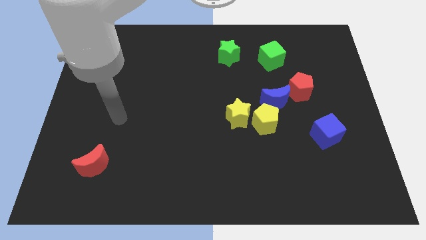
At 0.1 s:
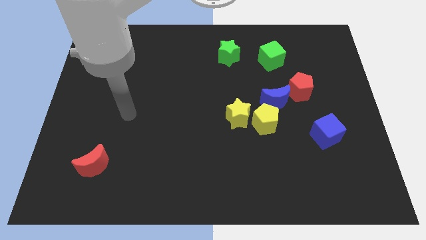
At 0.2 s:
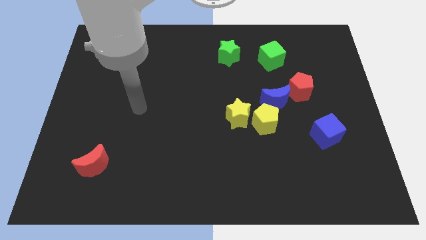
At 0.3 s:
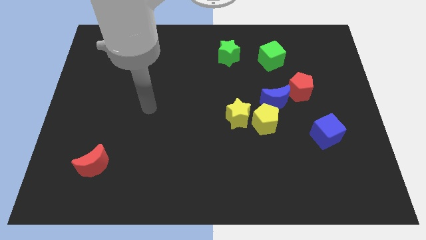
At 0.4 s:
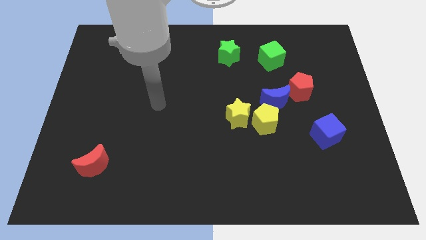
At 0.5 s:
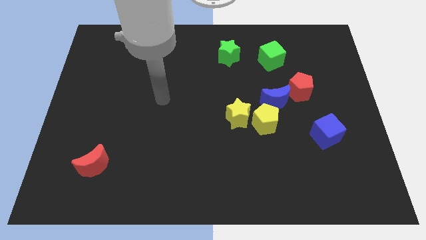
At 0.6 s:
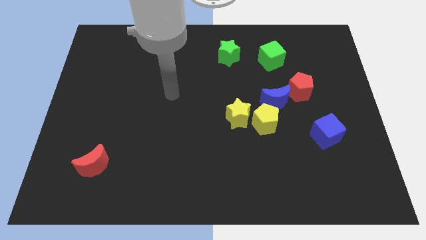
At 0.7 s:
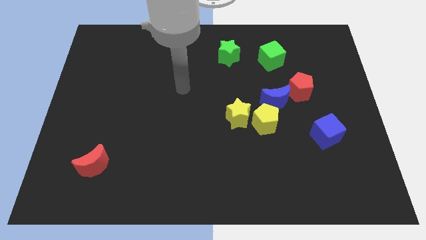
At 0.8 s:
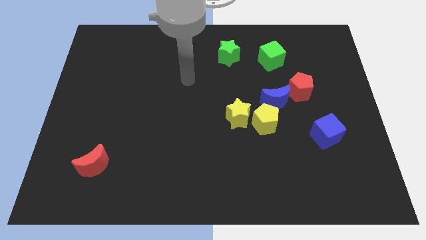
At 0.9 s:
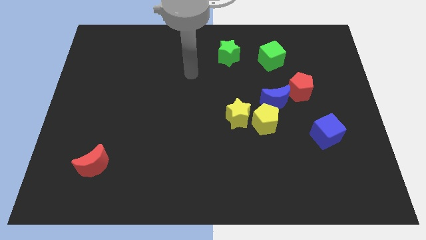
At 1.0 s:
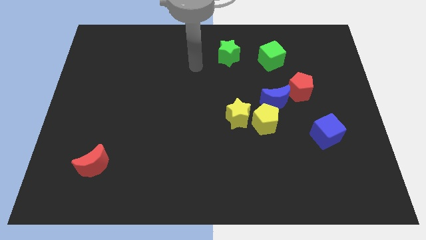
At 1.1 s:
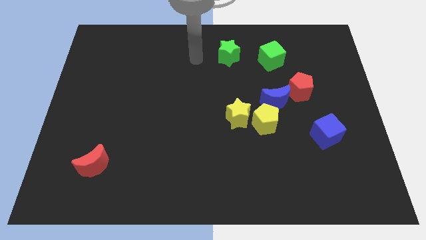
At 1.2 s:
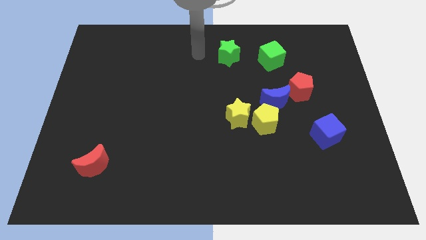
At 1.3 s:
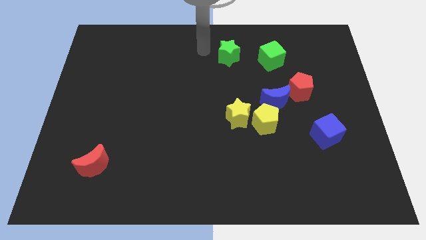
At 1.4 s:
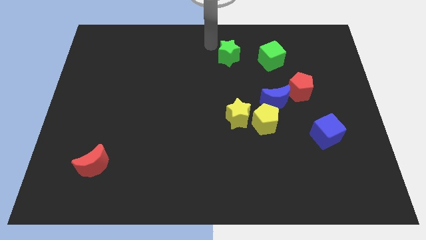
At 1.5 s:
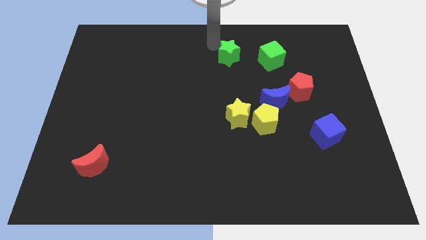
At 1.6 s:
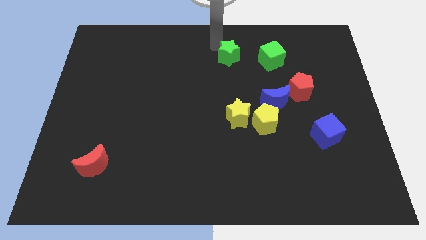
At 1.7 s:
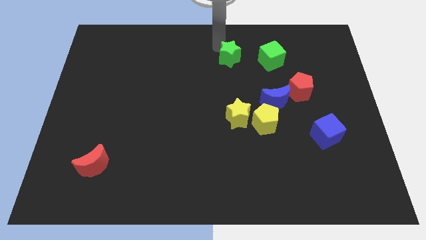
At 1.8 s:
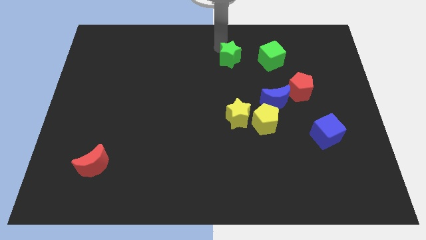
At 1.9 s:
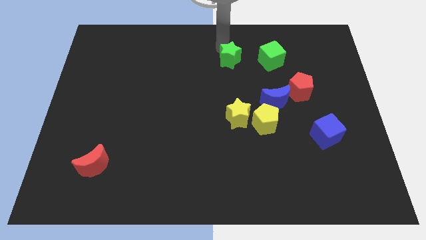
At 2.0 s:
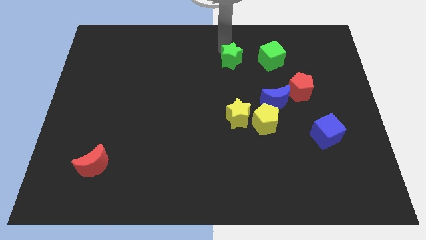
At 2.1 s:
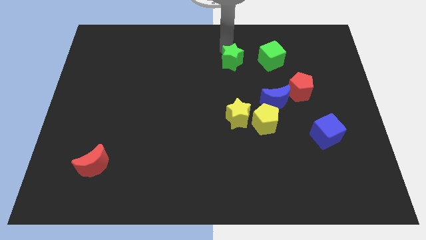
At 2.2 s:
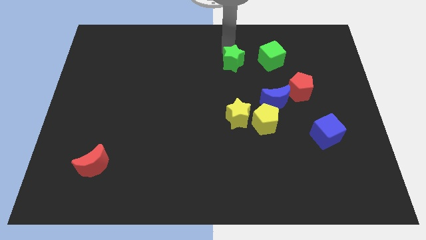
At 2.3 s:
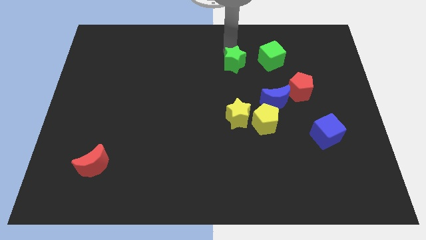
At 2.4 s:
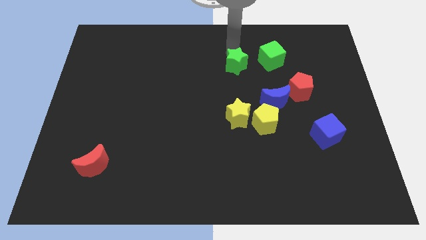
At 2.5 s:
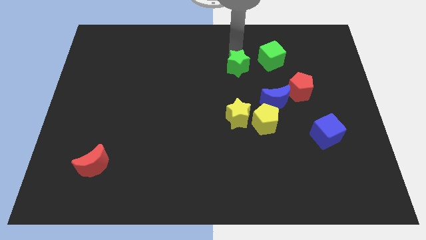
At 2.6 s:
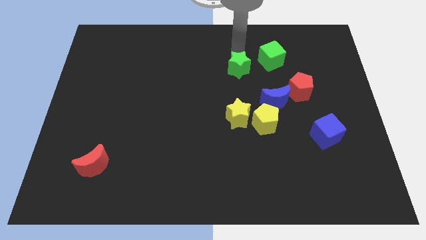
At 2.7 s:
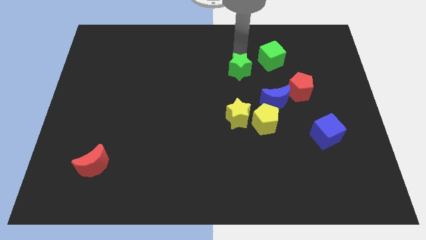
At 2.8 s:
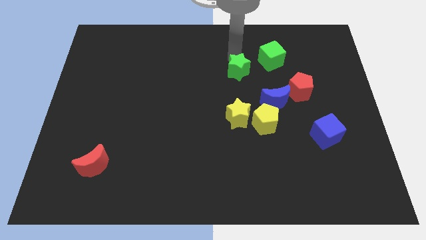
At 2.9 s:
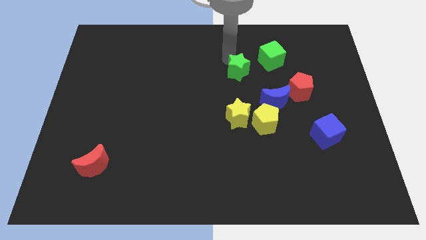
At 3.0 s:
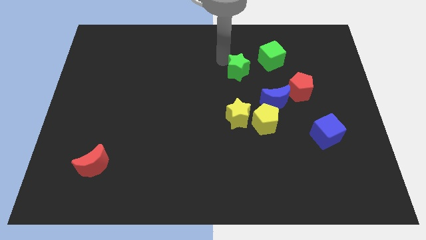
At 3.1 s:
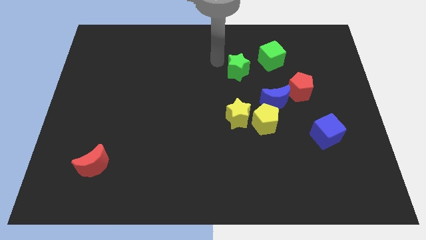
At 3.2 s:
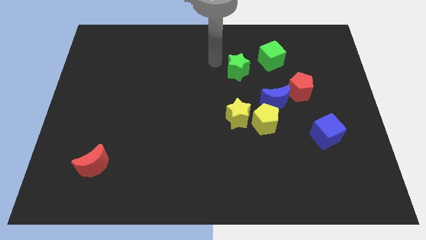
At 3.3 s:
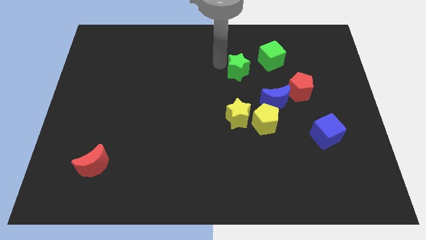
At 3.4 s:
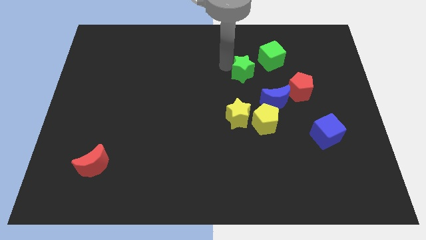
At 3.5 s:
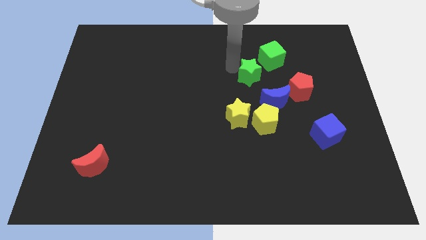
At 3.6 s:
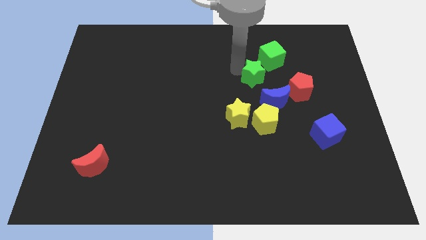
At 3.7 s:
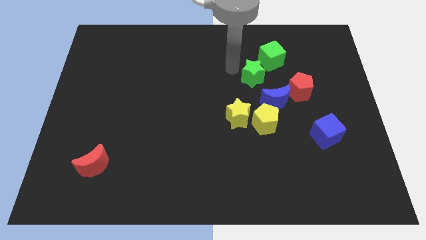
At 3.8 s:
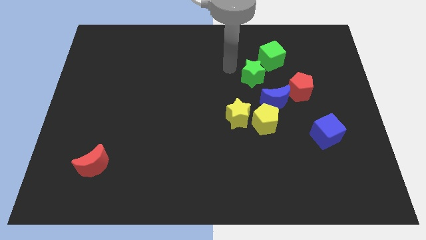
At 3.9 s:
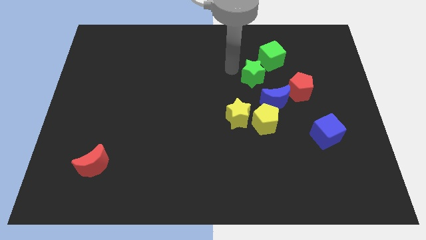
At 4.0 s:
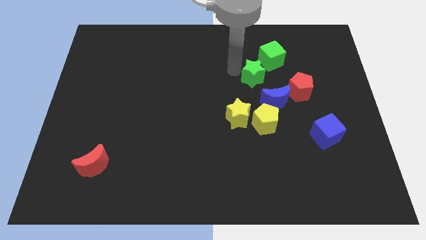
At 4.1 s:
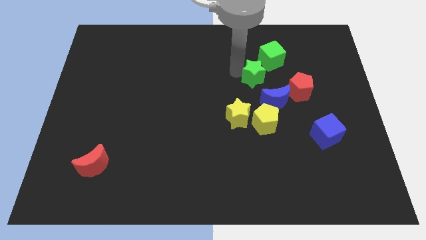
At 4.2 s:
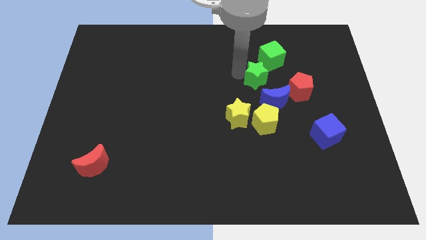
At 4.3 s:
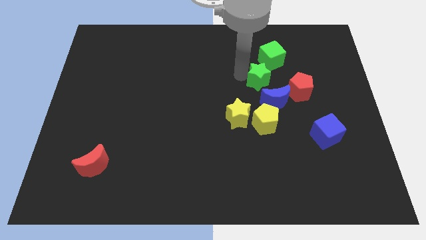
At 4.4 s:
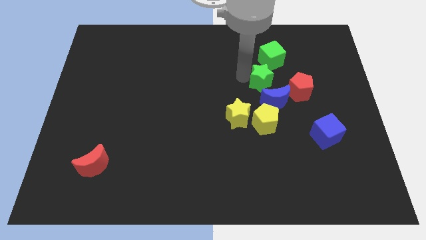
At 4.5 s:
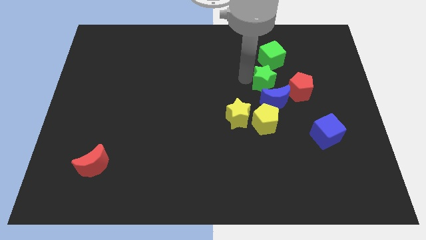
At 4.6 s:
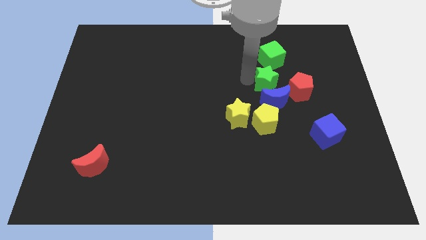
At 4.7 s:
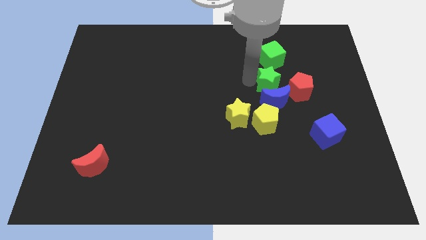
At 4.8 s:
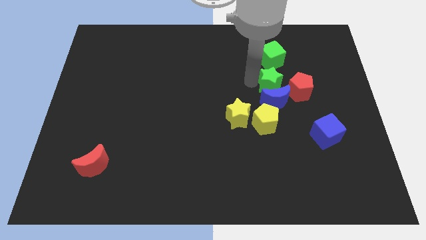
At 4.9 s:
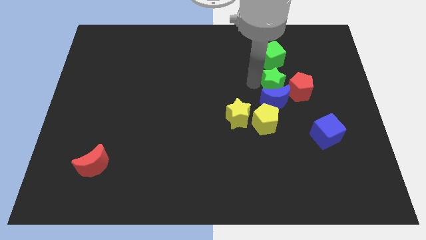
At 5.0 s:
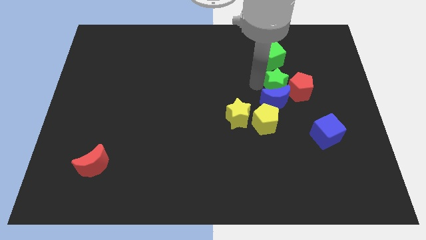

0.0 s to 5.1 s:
slide the green star to the red pentagon

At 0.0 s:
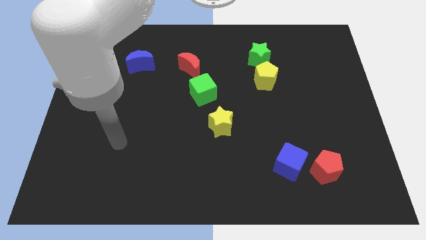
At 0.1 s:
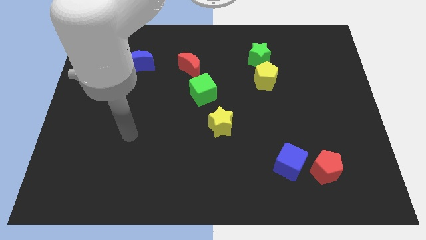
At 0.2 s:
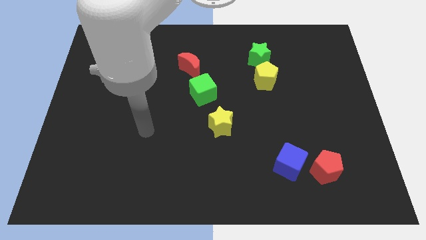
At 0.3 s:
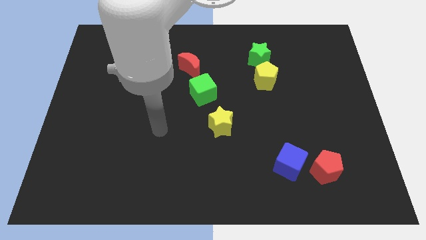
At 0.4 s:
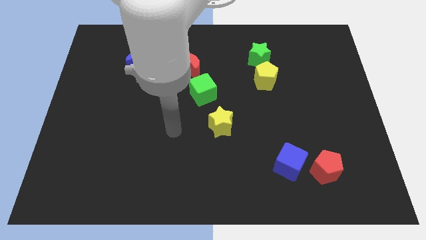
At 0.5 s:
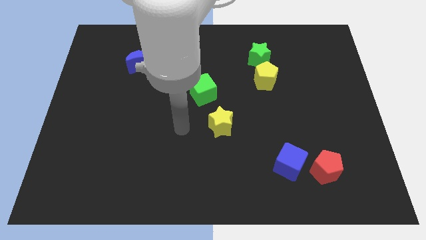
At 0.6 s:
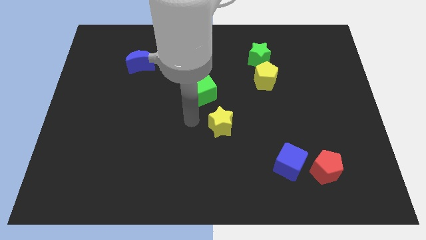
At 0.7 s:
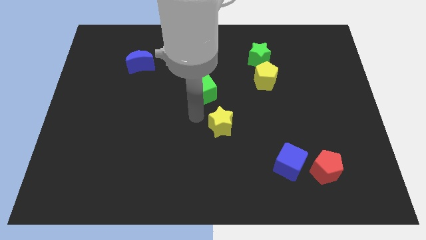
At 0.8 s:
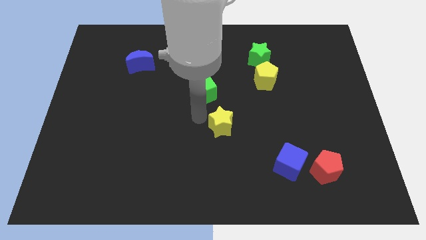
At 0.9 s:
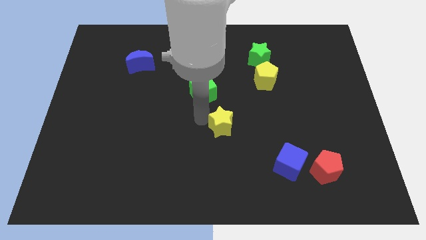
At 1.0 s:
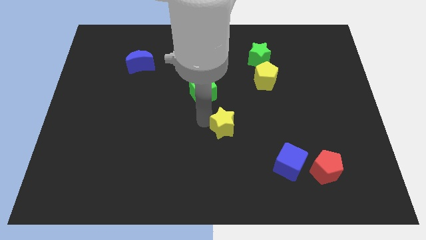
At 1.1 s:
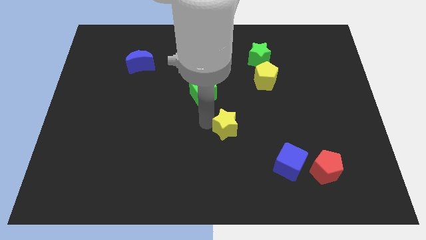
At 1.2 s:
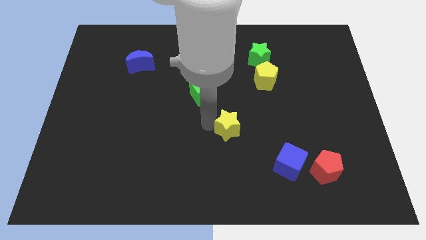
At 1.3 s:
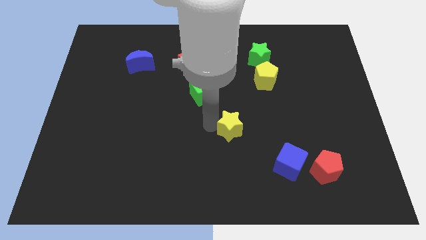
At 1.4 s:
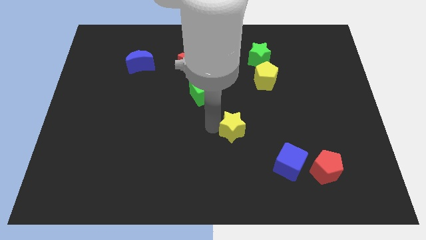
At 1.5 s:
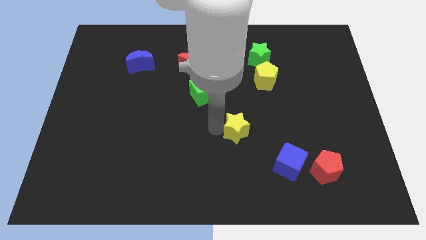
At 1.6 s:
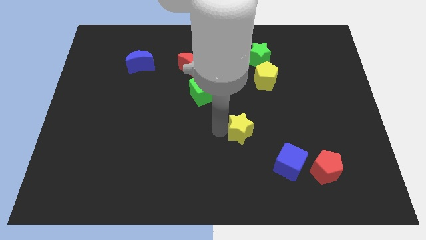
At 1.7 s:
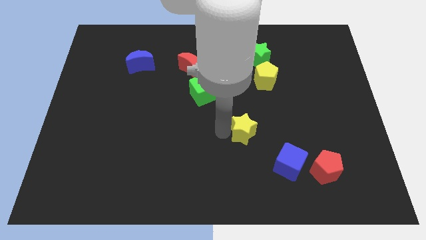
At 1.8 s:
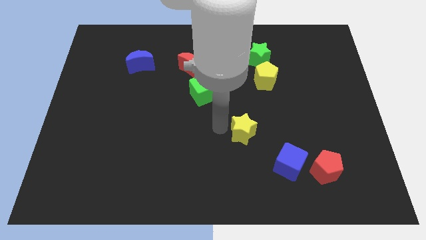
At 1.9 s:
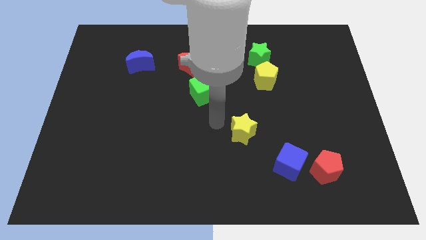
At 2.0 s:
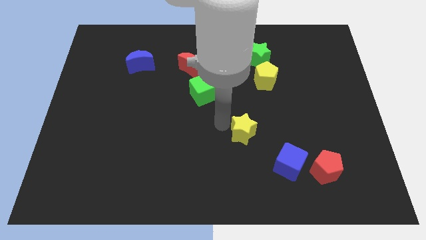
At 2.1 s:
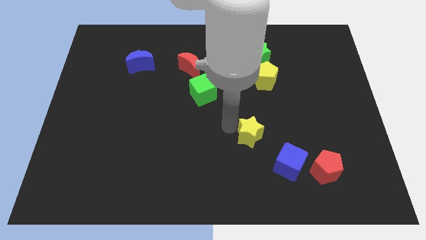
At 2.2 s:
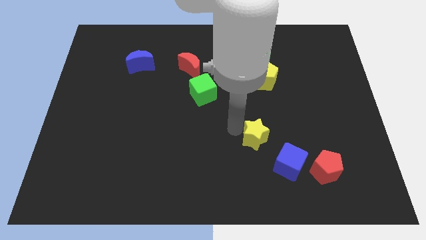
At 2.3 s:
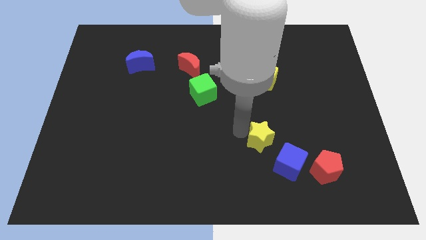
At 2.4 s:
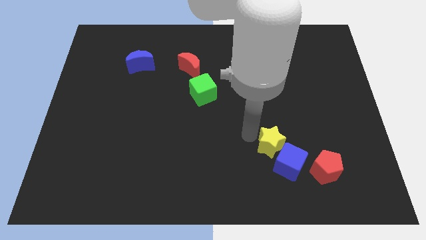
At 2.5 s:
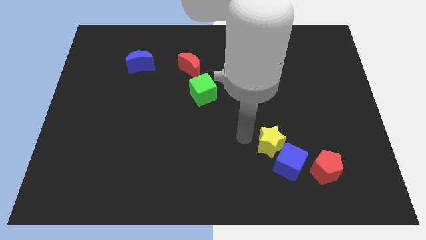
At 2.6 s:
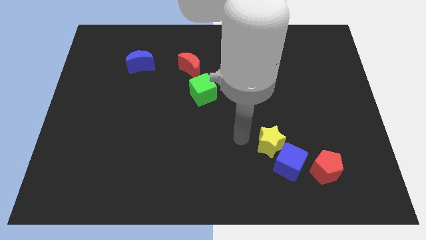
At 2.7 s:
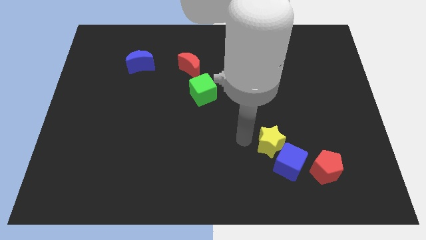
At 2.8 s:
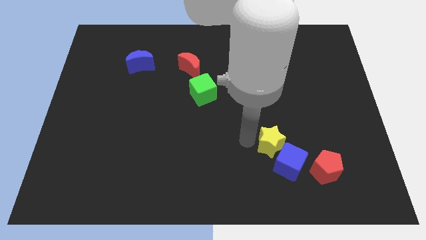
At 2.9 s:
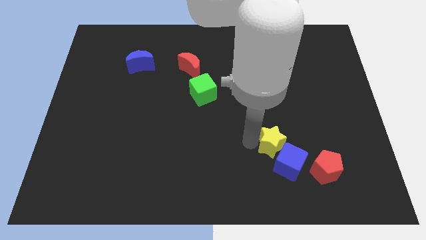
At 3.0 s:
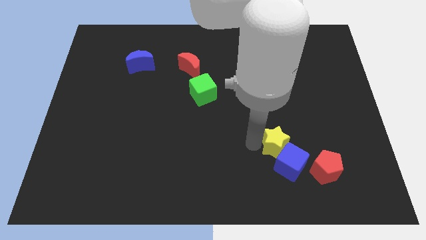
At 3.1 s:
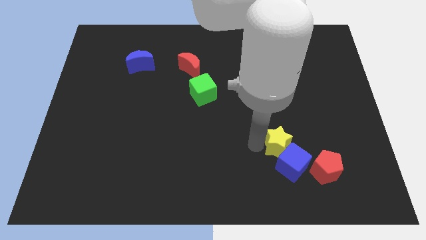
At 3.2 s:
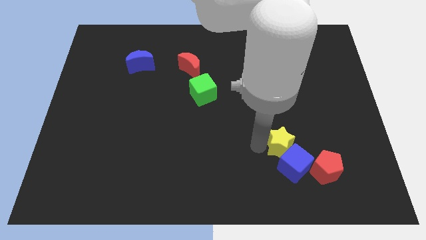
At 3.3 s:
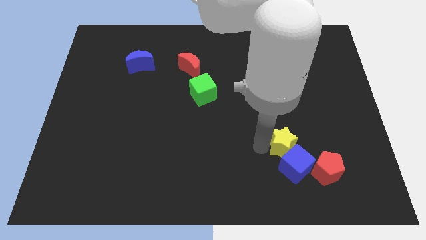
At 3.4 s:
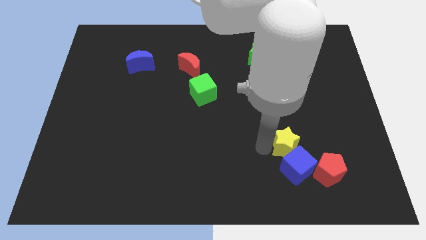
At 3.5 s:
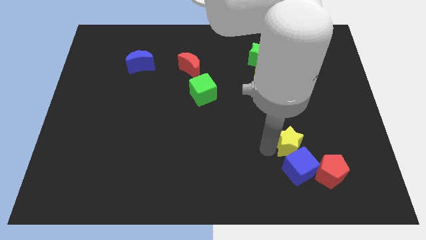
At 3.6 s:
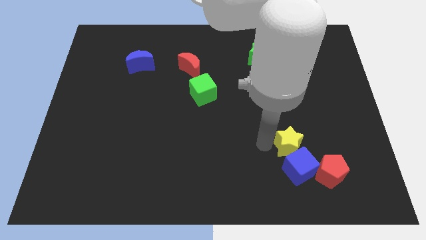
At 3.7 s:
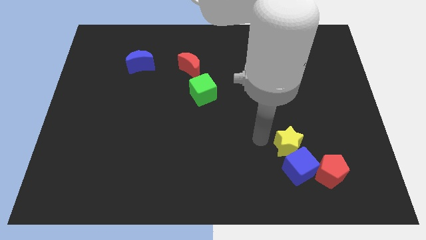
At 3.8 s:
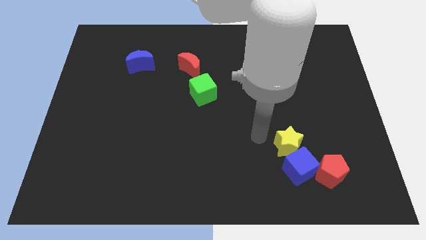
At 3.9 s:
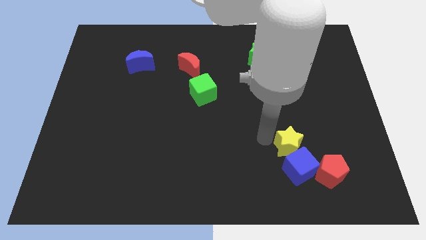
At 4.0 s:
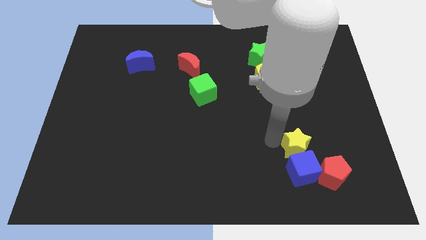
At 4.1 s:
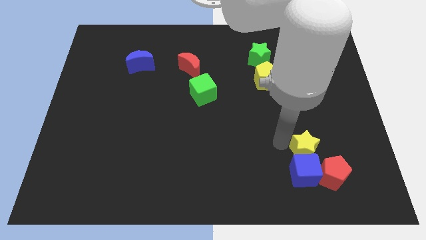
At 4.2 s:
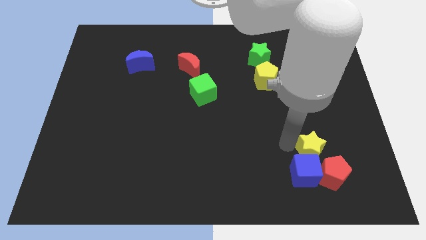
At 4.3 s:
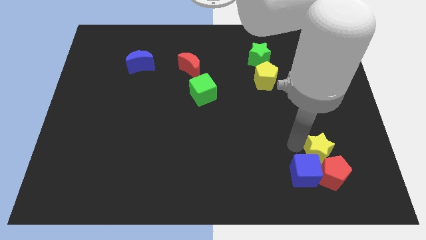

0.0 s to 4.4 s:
move the yellow star towards the red pentagon
